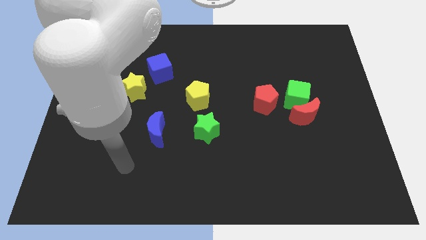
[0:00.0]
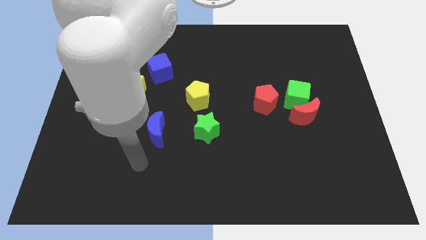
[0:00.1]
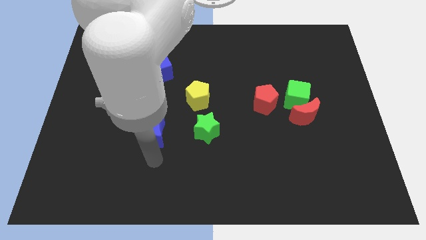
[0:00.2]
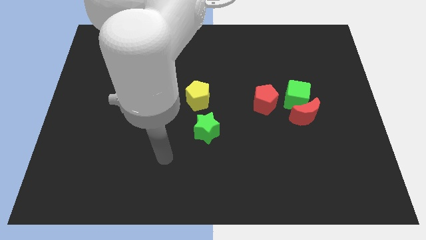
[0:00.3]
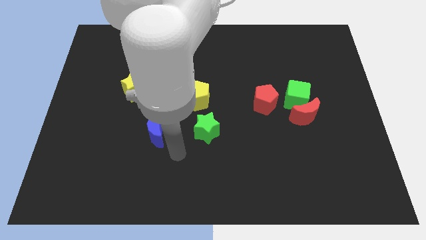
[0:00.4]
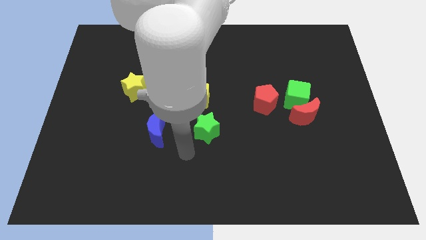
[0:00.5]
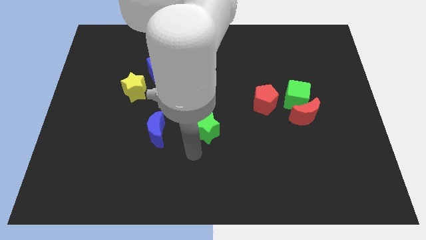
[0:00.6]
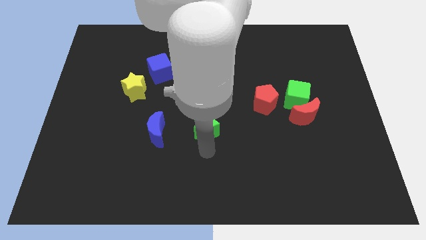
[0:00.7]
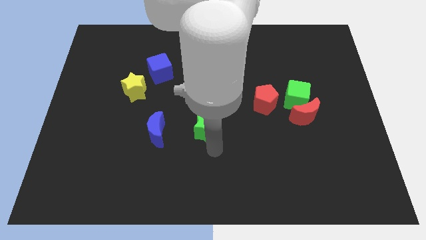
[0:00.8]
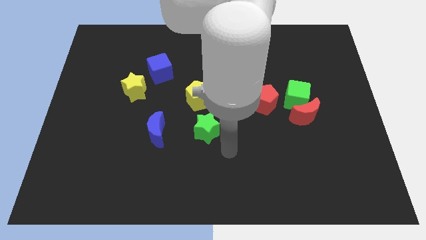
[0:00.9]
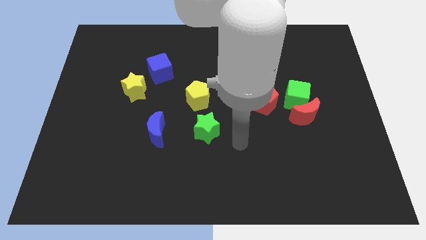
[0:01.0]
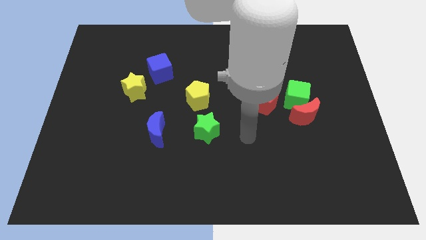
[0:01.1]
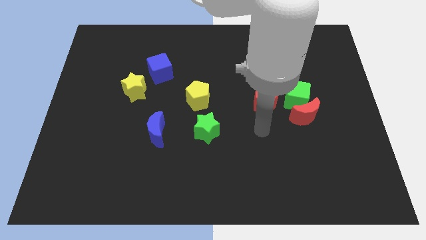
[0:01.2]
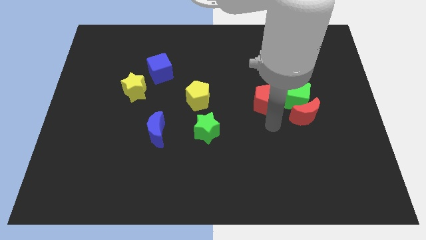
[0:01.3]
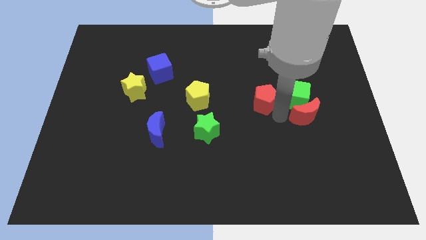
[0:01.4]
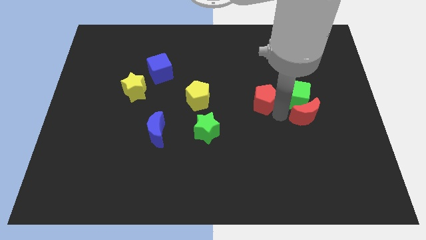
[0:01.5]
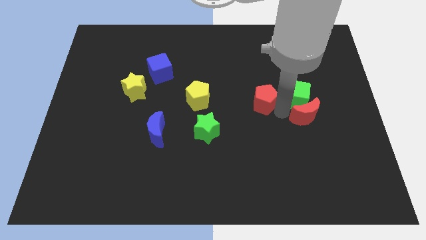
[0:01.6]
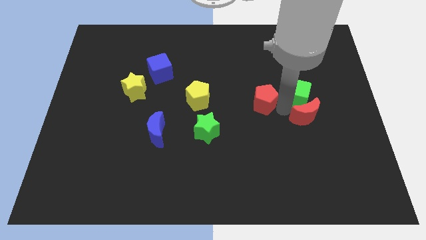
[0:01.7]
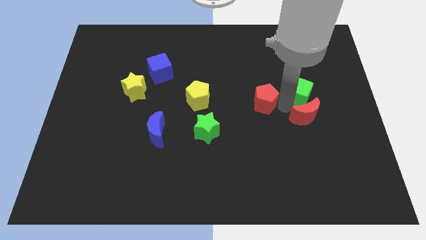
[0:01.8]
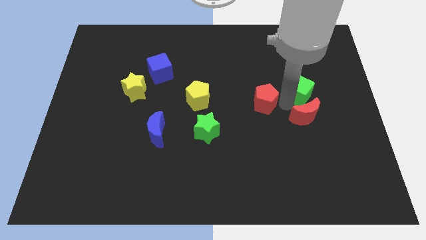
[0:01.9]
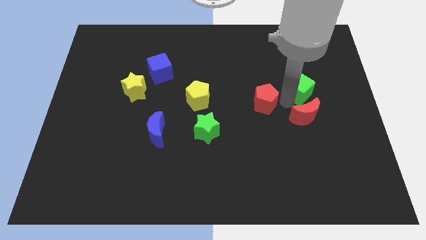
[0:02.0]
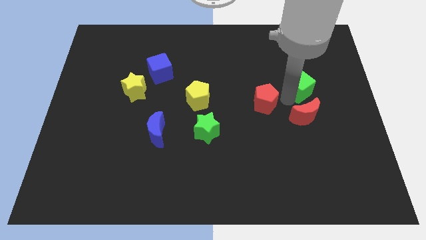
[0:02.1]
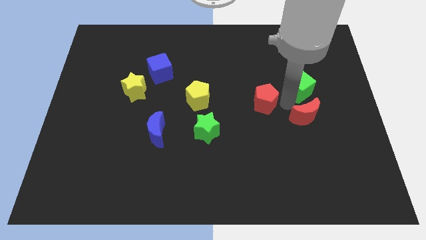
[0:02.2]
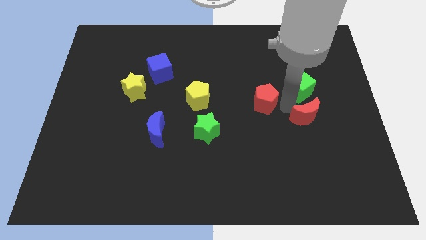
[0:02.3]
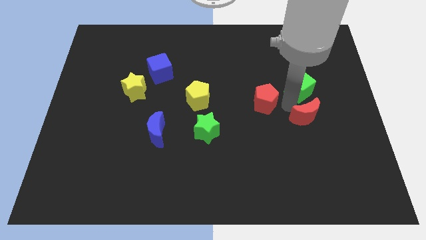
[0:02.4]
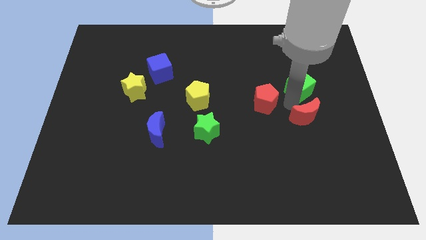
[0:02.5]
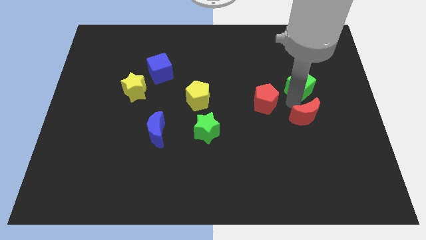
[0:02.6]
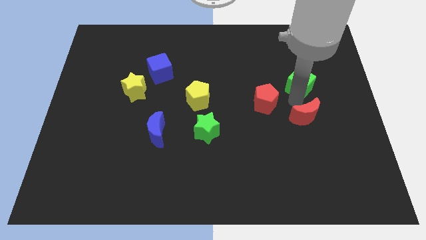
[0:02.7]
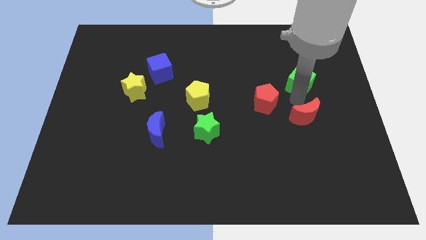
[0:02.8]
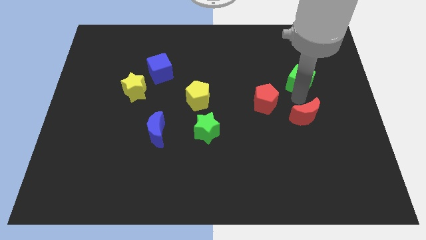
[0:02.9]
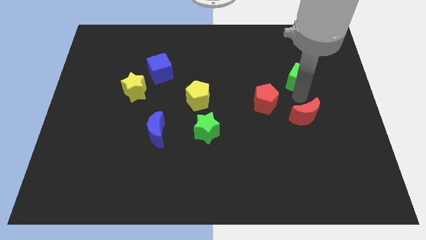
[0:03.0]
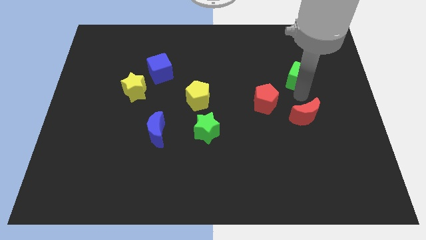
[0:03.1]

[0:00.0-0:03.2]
separate the green cube from the red moon and red pentagon

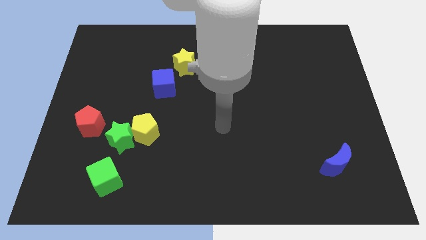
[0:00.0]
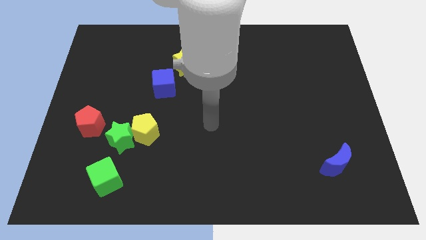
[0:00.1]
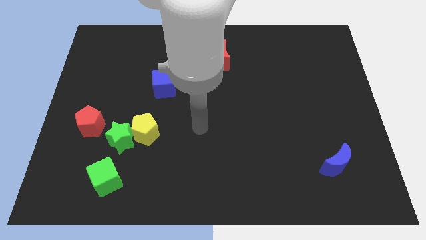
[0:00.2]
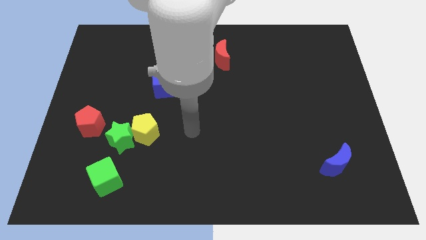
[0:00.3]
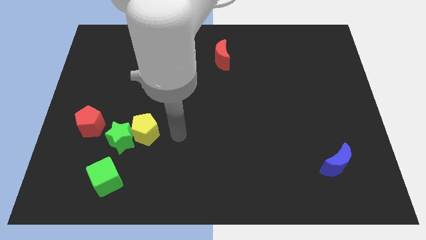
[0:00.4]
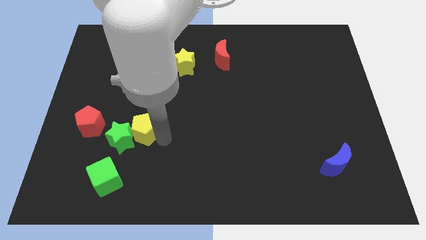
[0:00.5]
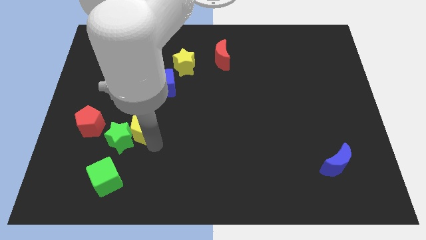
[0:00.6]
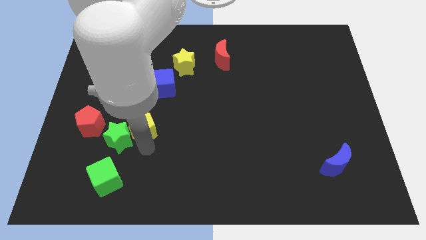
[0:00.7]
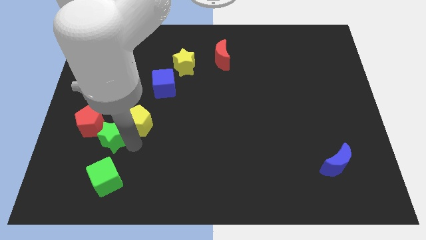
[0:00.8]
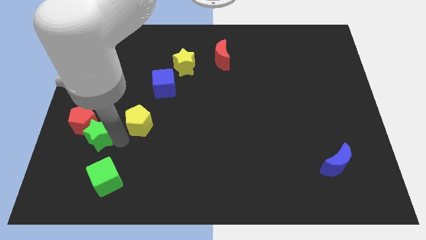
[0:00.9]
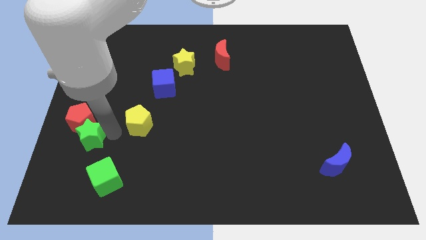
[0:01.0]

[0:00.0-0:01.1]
move the yellow pentagon away from the green star

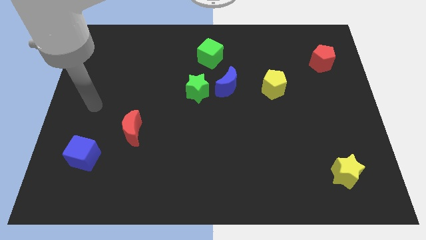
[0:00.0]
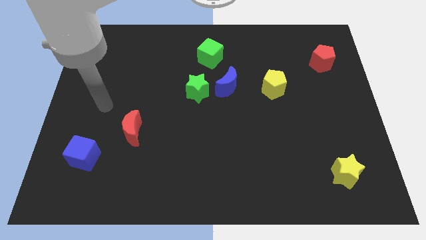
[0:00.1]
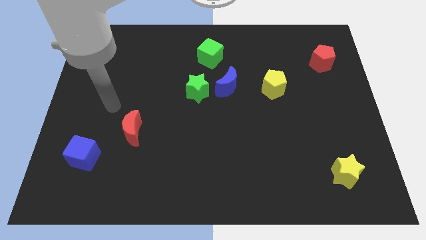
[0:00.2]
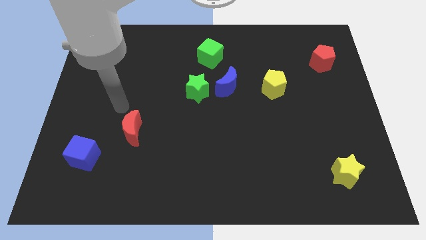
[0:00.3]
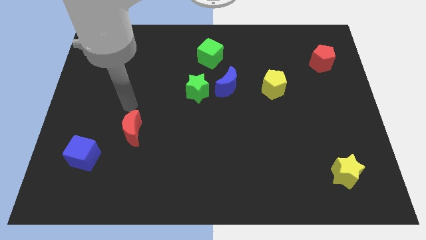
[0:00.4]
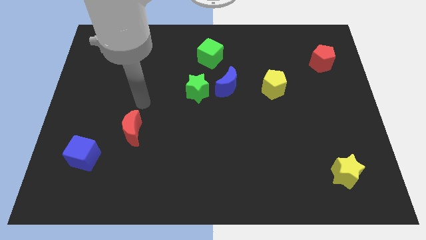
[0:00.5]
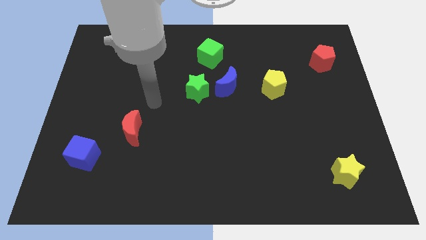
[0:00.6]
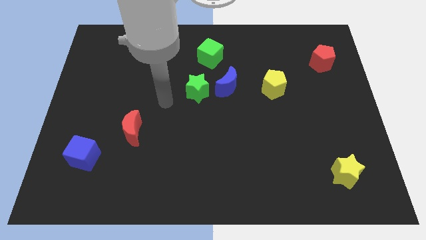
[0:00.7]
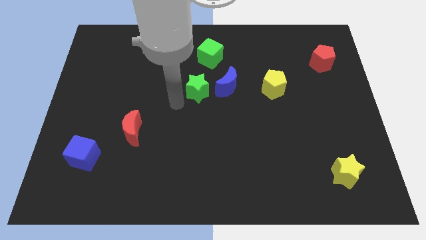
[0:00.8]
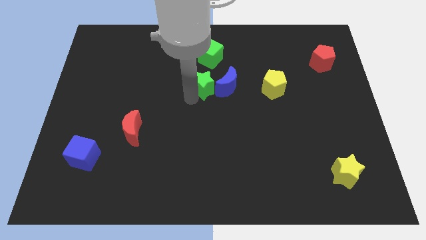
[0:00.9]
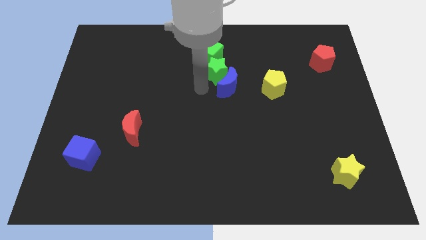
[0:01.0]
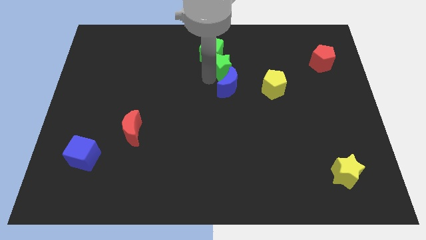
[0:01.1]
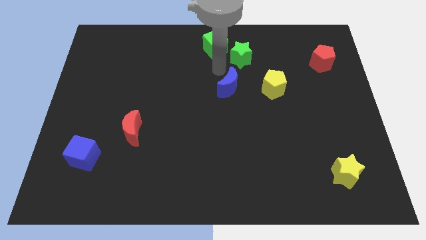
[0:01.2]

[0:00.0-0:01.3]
pull the blue moon apart from the green star

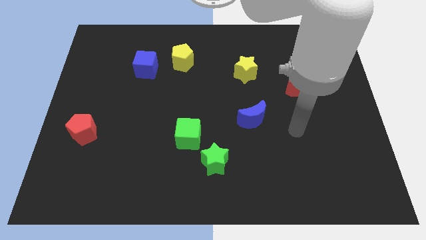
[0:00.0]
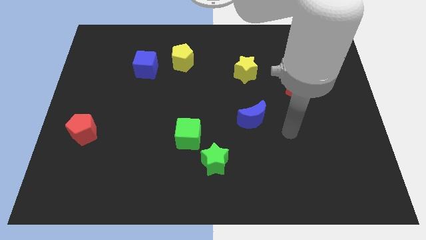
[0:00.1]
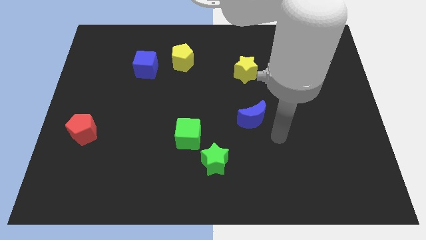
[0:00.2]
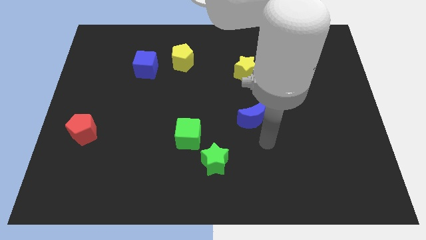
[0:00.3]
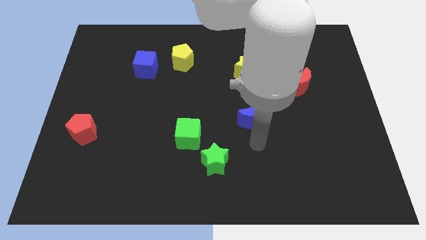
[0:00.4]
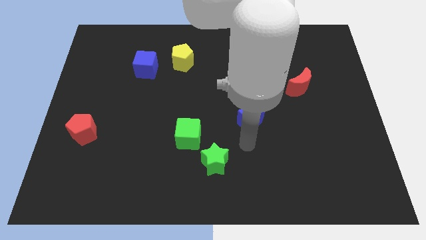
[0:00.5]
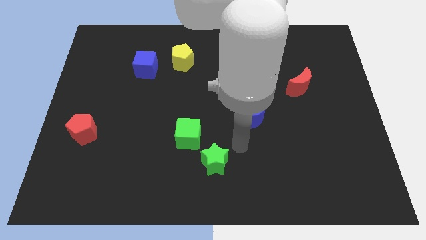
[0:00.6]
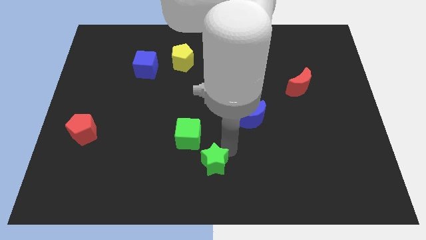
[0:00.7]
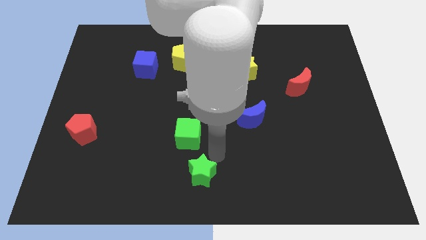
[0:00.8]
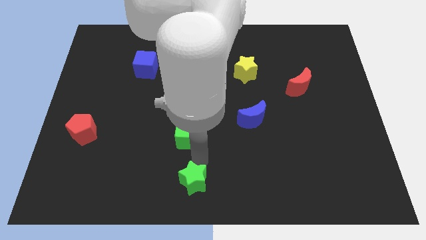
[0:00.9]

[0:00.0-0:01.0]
pull the green cube apart from the green star

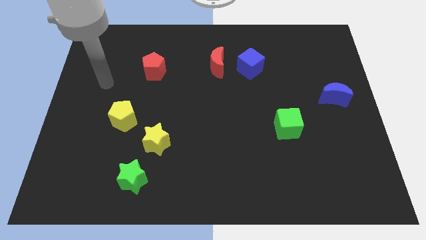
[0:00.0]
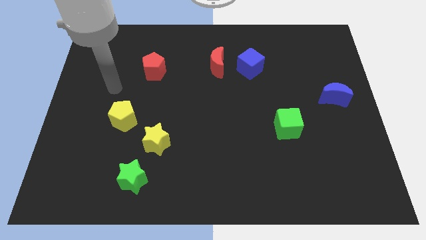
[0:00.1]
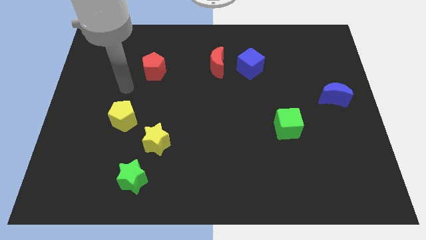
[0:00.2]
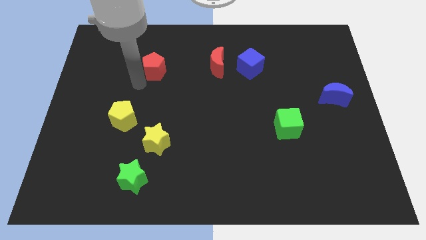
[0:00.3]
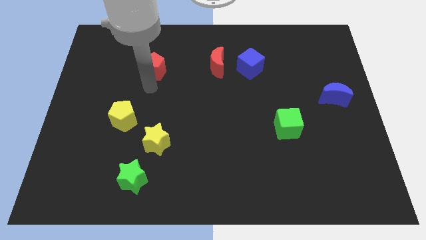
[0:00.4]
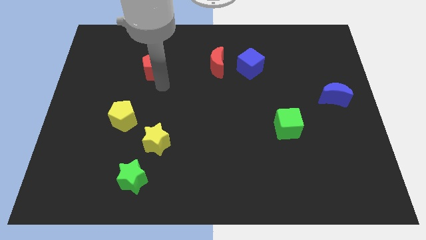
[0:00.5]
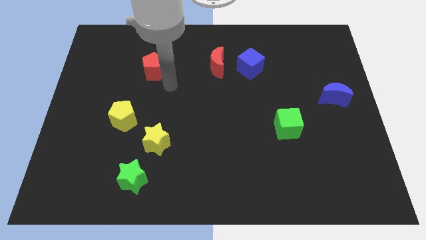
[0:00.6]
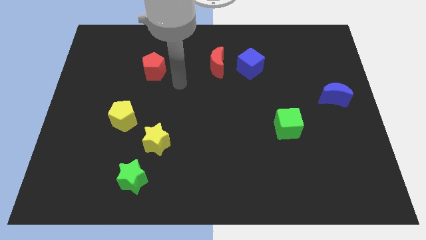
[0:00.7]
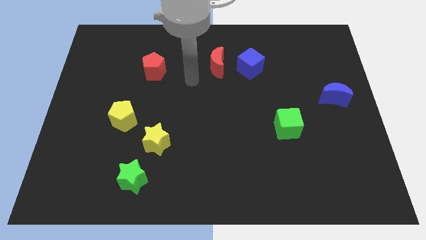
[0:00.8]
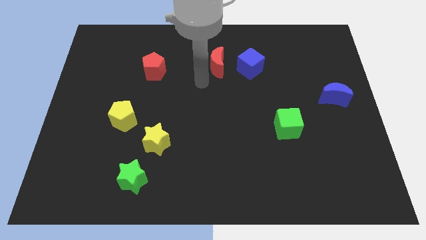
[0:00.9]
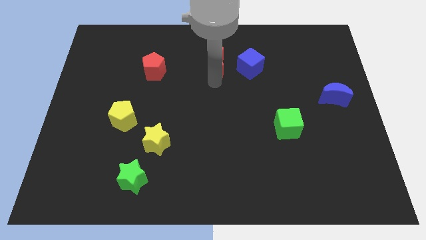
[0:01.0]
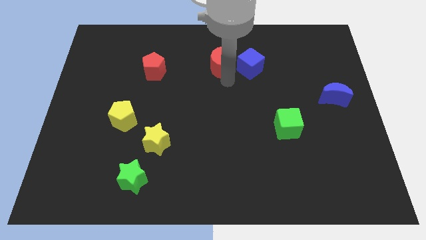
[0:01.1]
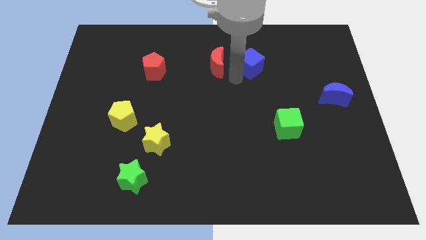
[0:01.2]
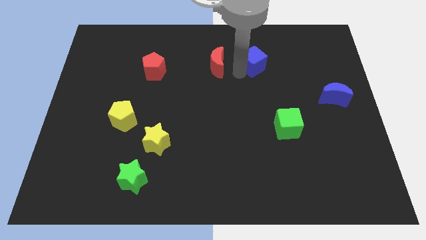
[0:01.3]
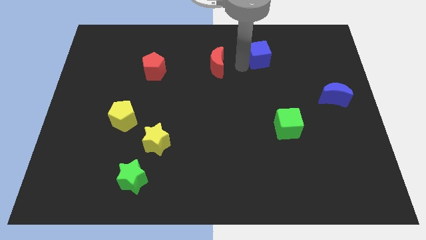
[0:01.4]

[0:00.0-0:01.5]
separate the red moon from the blue cube

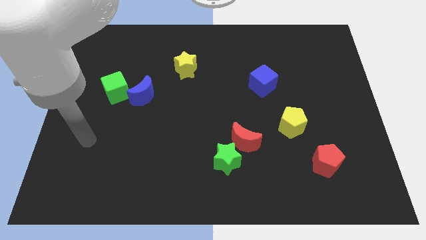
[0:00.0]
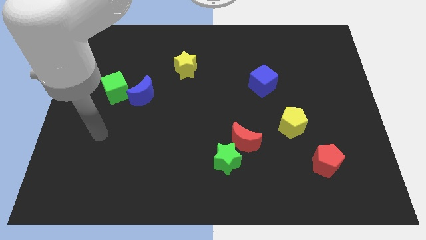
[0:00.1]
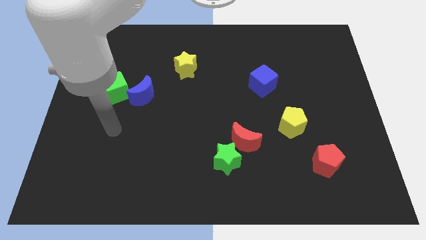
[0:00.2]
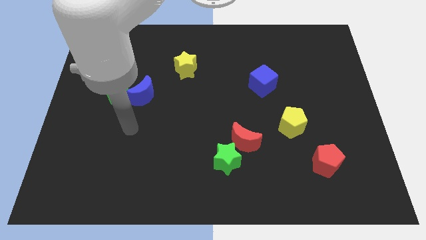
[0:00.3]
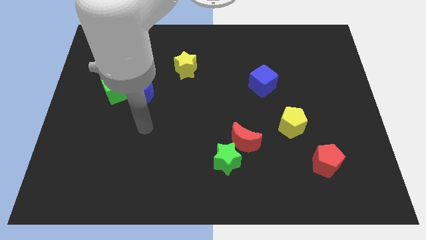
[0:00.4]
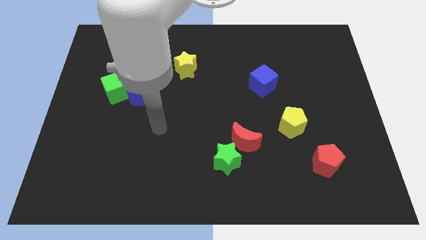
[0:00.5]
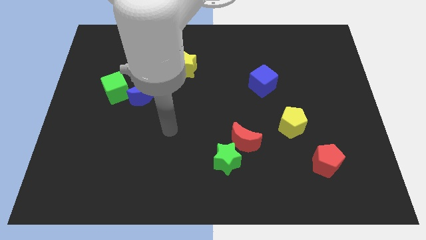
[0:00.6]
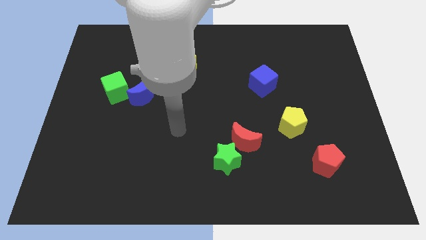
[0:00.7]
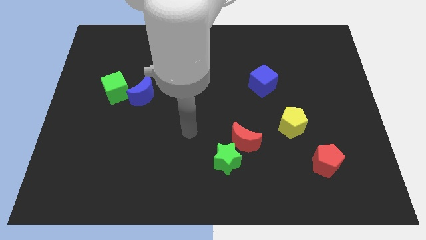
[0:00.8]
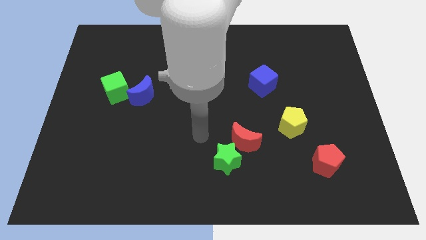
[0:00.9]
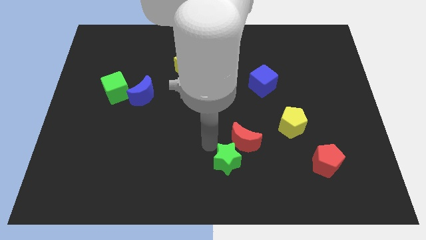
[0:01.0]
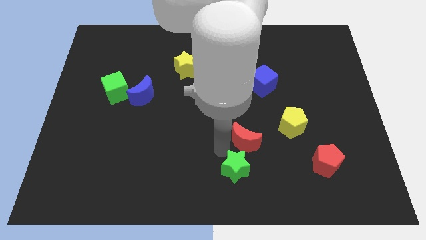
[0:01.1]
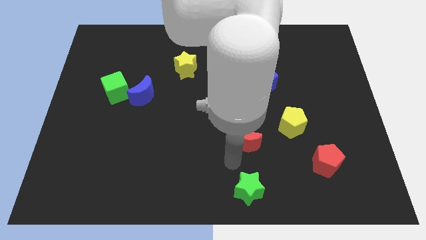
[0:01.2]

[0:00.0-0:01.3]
separate the red moon from the green star
